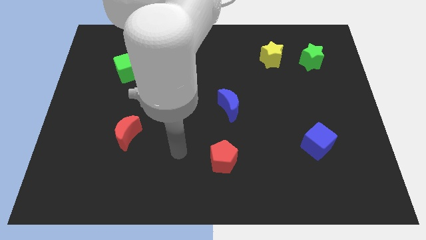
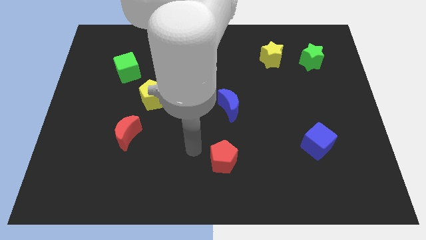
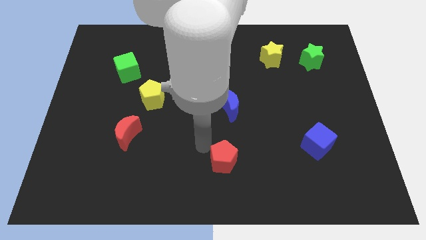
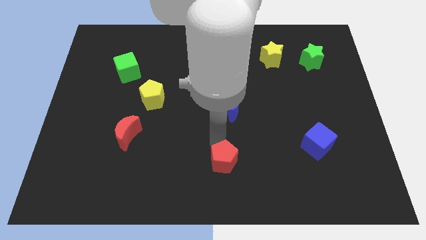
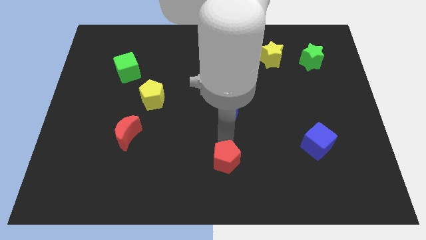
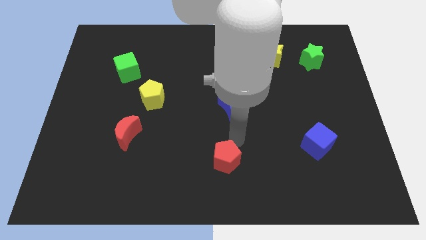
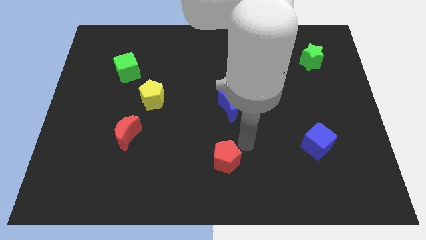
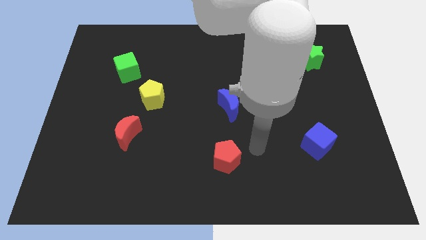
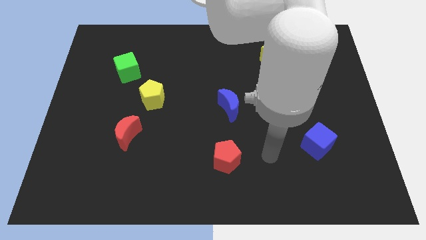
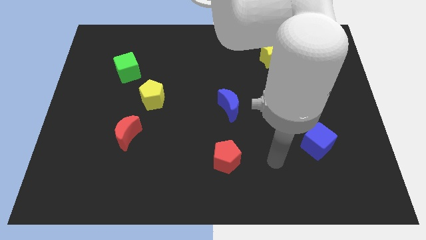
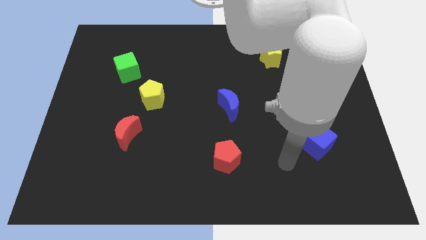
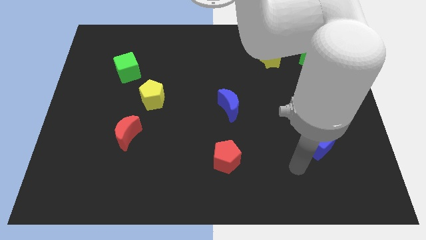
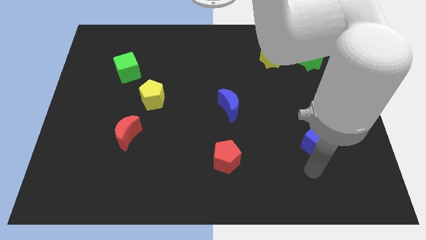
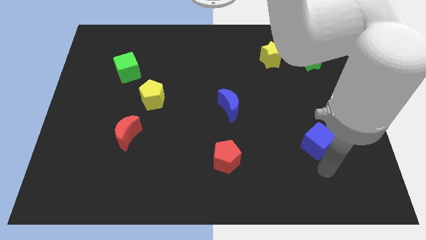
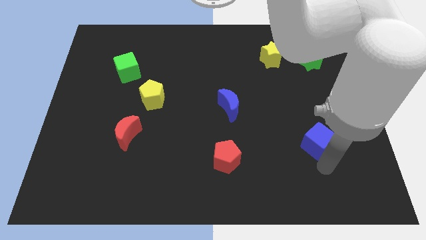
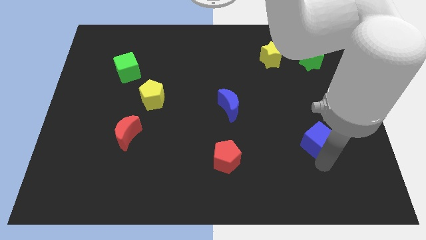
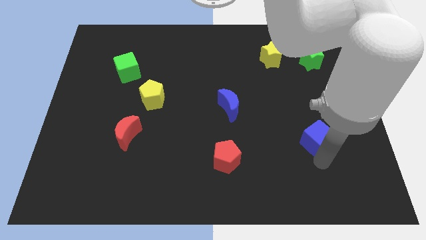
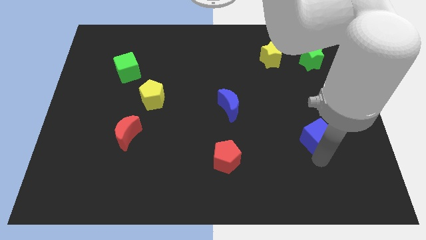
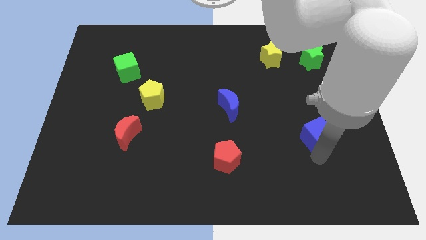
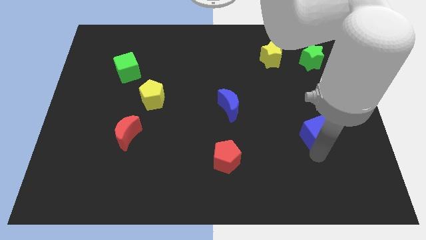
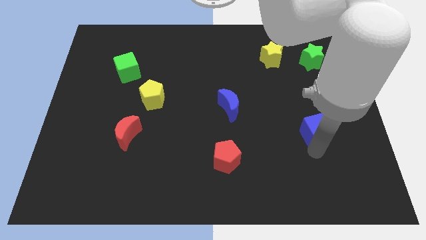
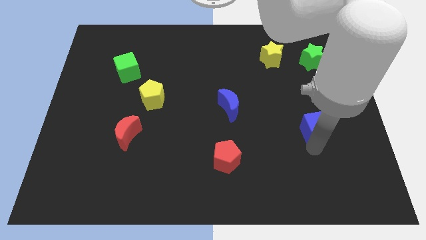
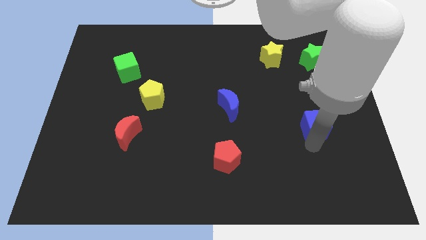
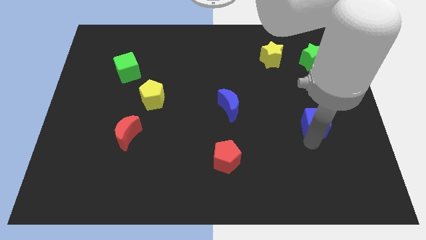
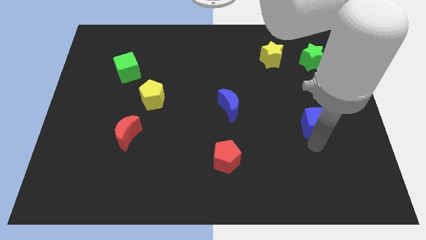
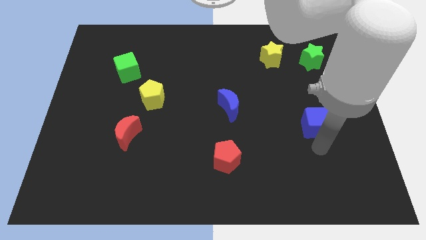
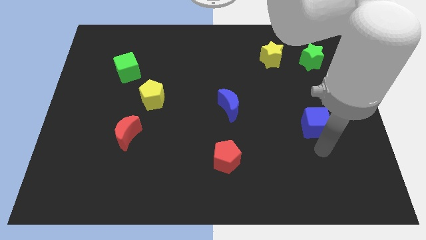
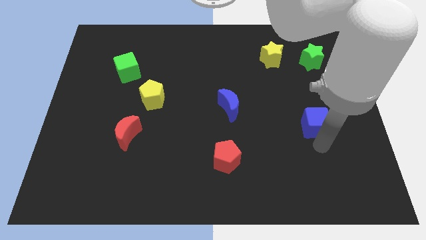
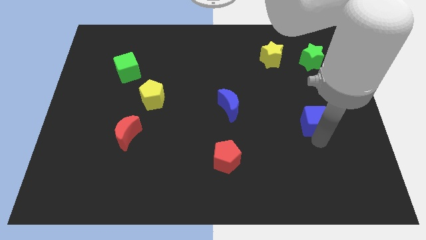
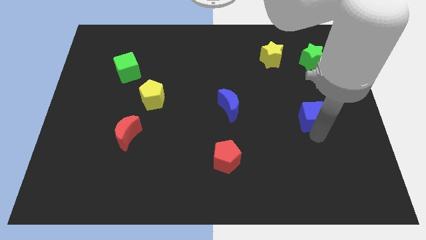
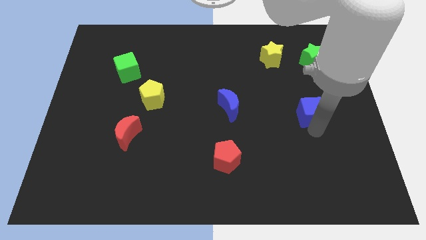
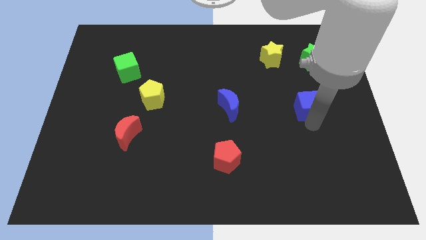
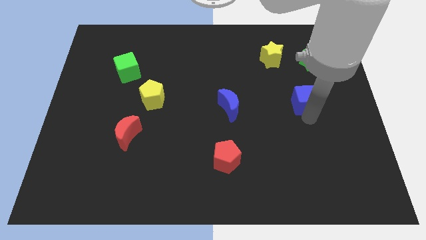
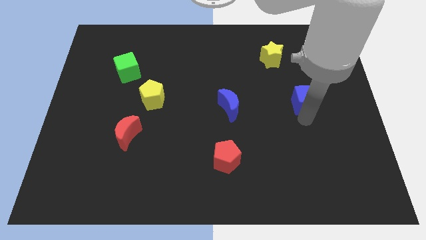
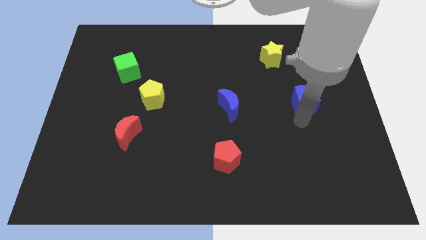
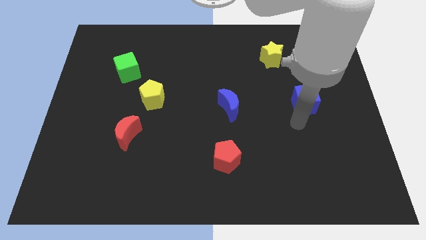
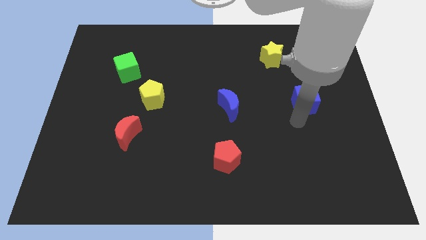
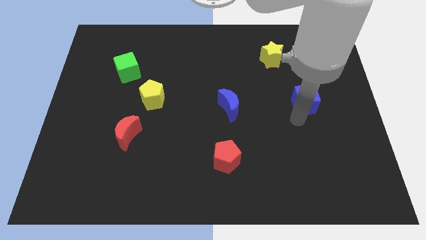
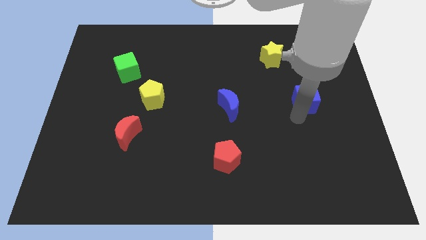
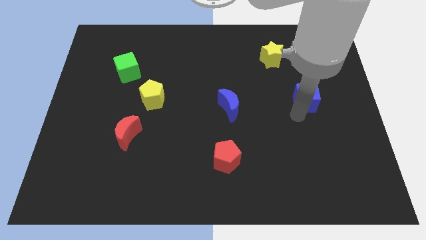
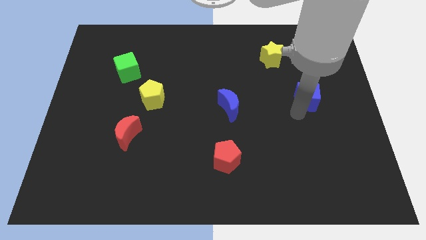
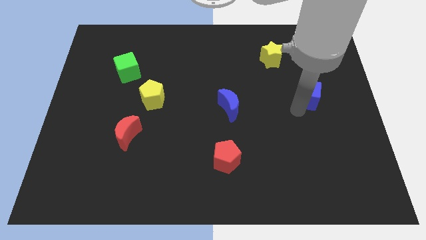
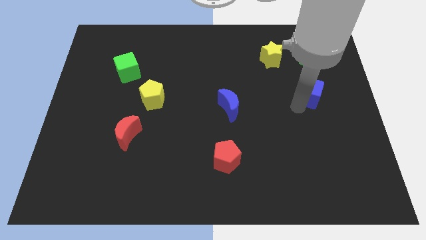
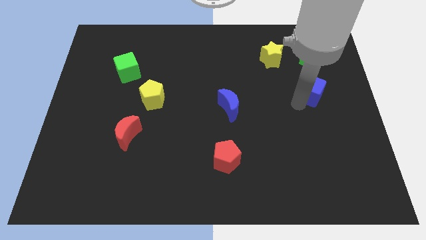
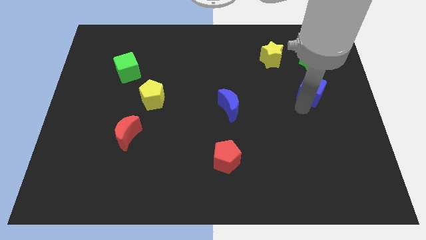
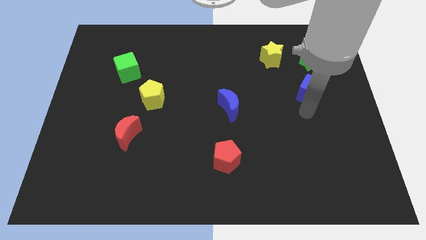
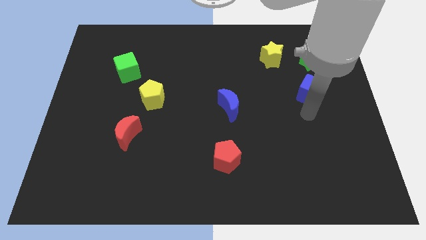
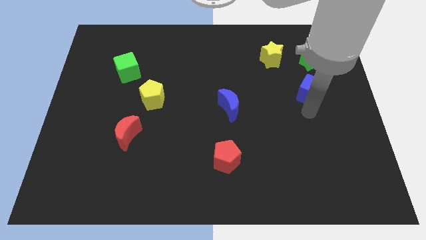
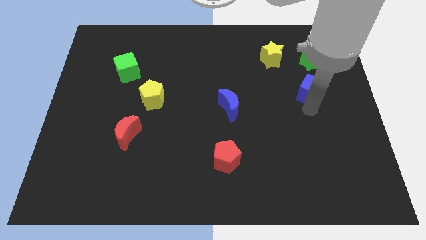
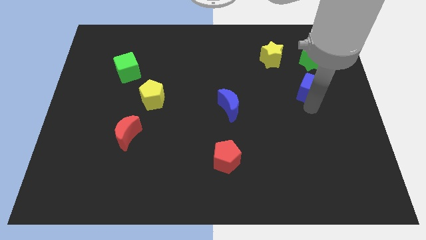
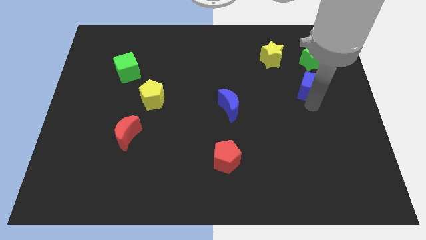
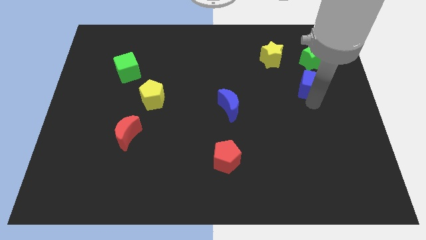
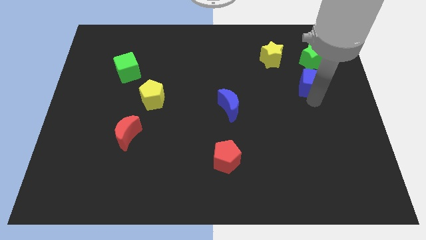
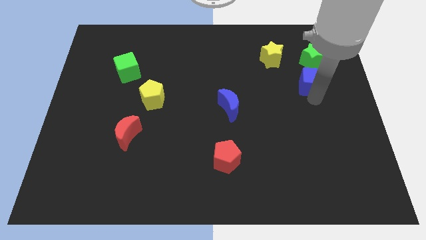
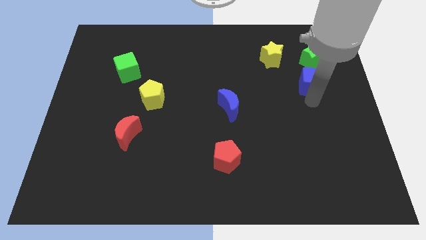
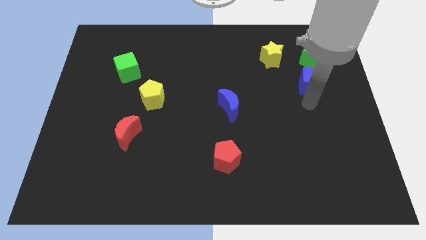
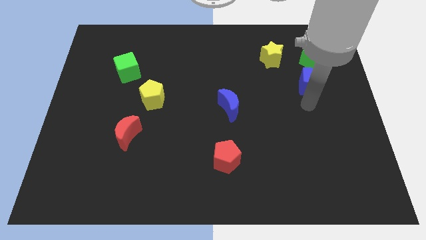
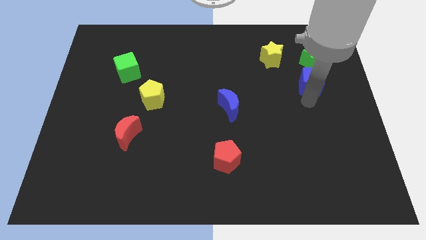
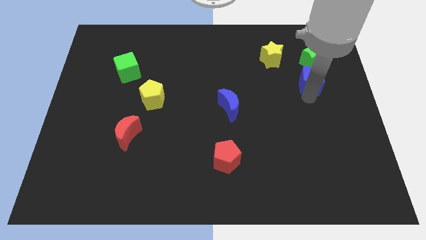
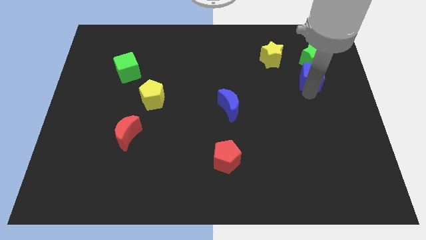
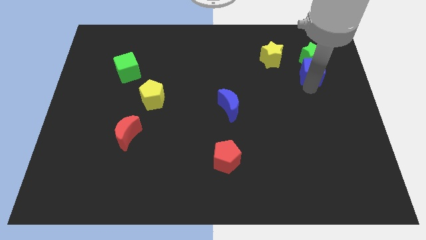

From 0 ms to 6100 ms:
push the blue cube to the green star
